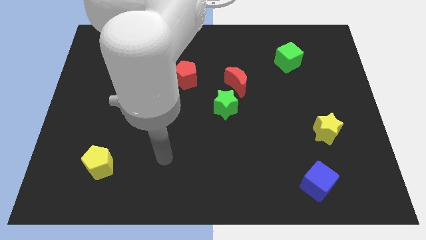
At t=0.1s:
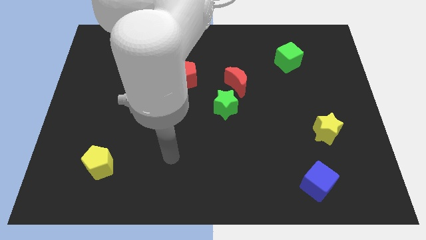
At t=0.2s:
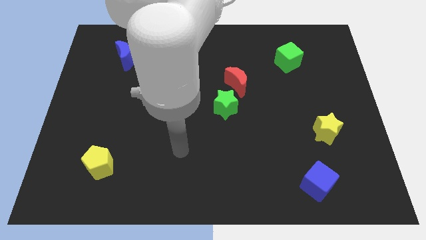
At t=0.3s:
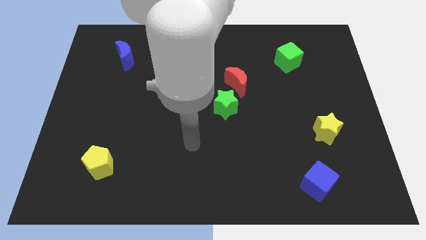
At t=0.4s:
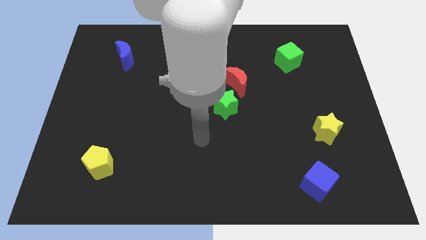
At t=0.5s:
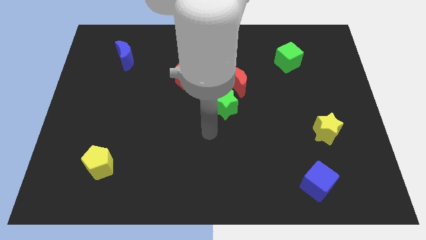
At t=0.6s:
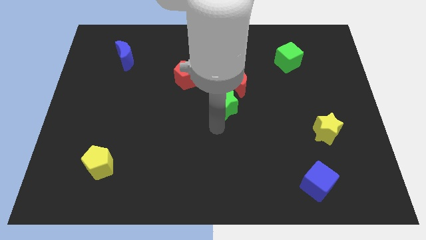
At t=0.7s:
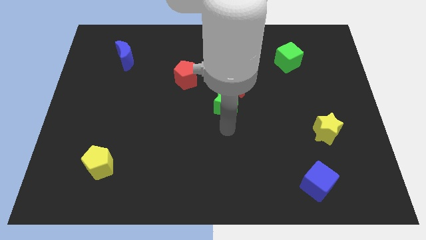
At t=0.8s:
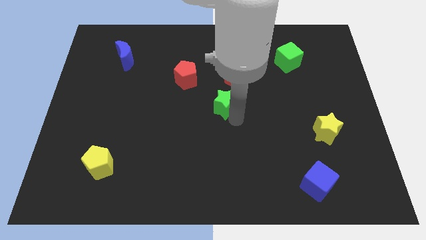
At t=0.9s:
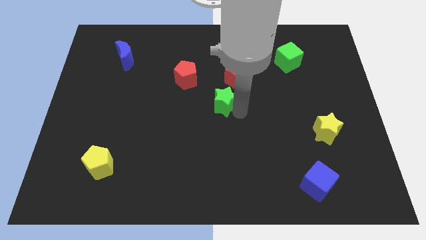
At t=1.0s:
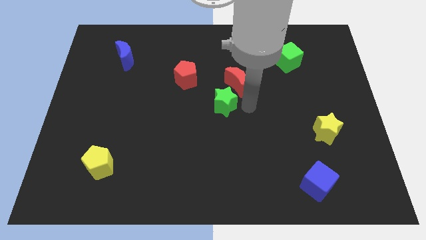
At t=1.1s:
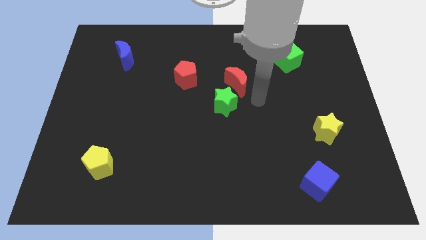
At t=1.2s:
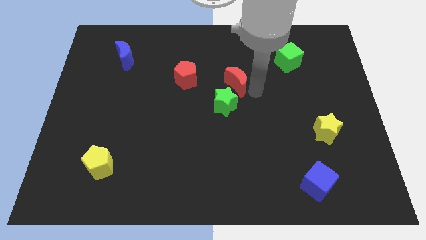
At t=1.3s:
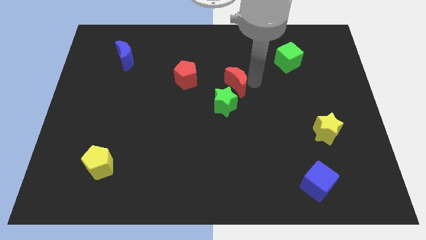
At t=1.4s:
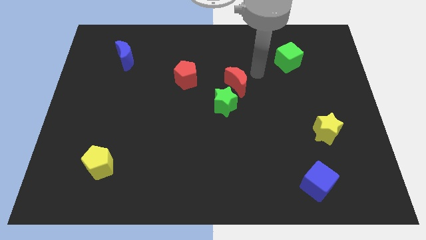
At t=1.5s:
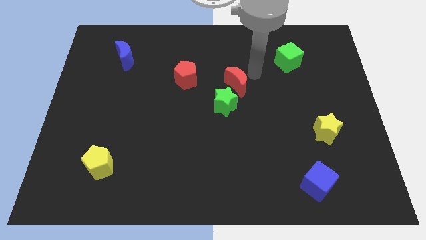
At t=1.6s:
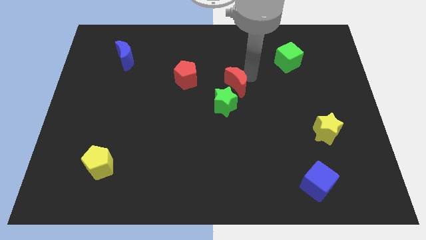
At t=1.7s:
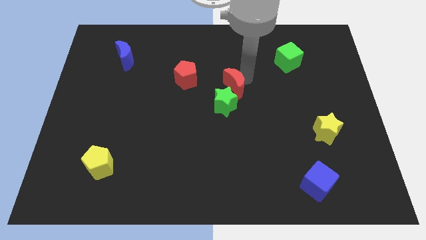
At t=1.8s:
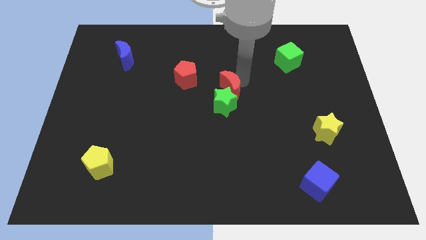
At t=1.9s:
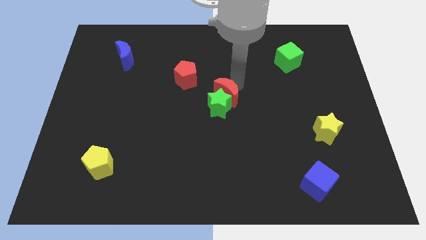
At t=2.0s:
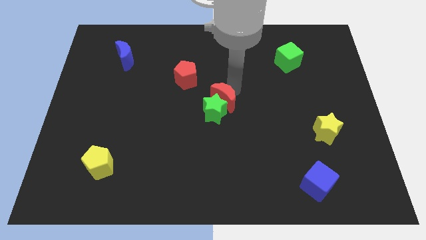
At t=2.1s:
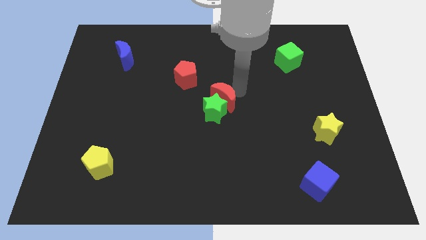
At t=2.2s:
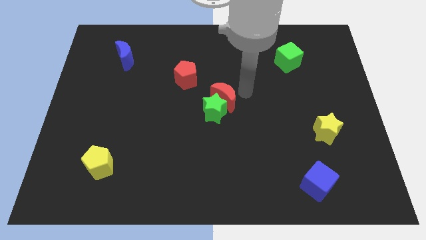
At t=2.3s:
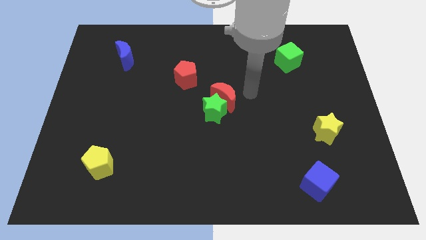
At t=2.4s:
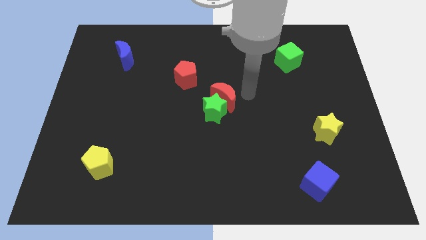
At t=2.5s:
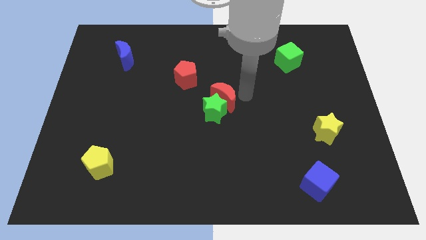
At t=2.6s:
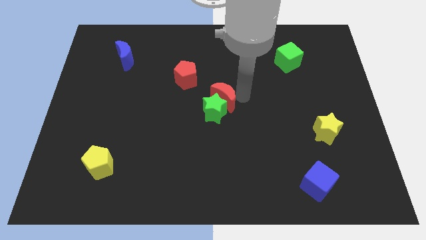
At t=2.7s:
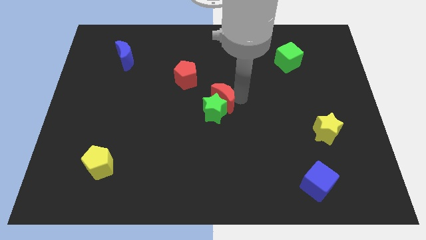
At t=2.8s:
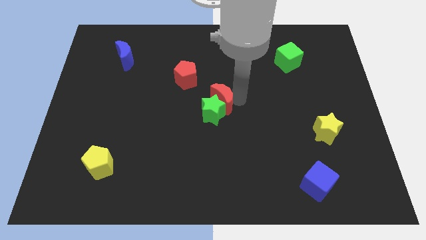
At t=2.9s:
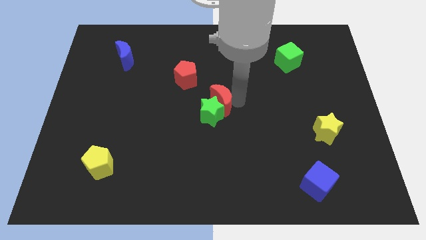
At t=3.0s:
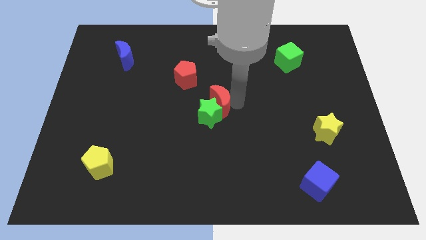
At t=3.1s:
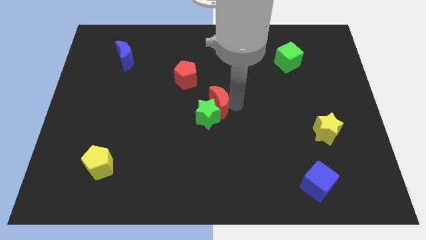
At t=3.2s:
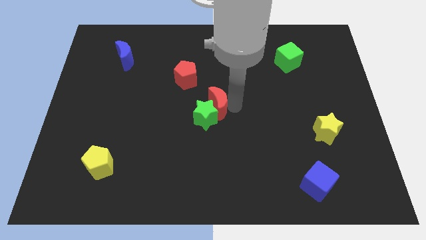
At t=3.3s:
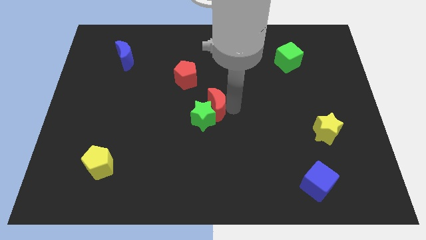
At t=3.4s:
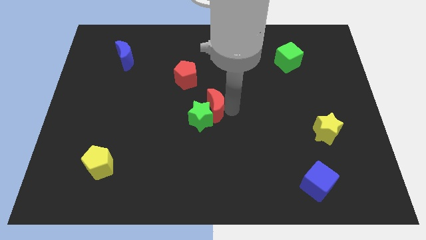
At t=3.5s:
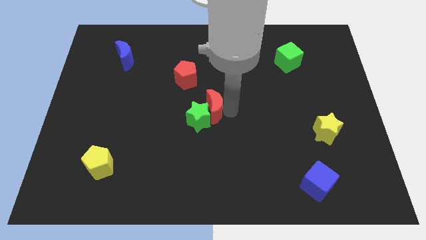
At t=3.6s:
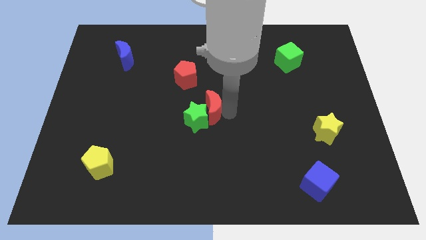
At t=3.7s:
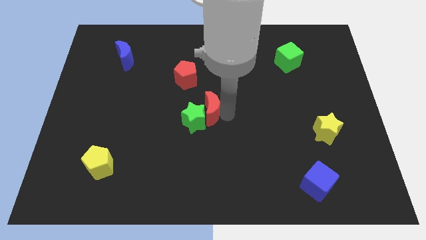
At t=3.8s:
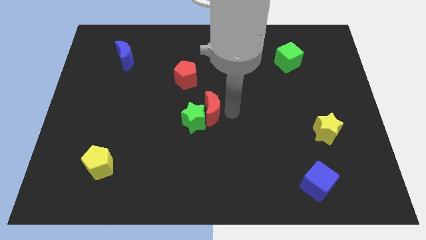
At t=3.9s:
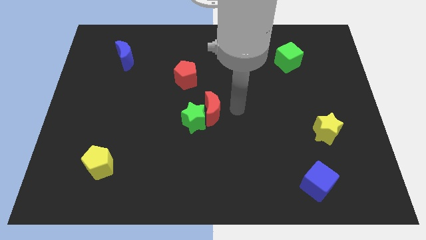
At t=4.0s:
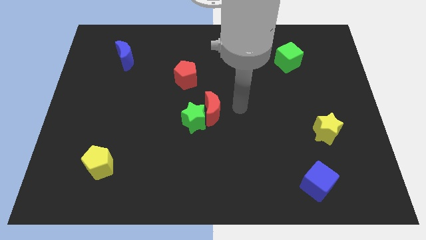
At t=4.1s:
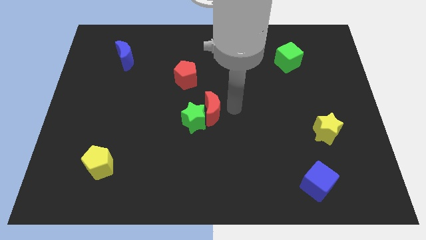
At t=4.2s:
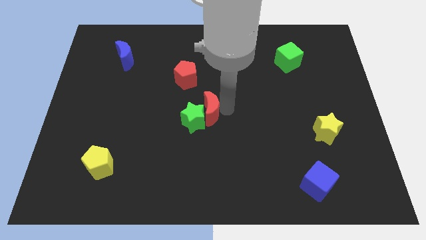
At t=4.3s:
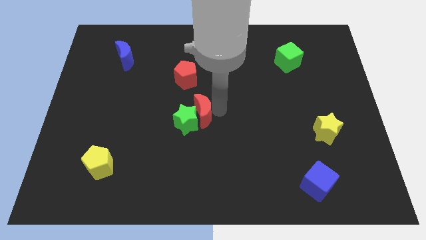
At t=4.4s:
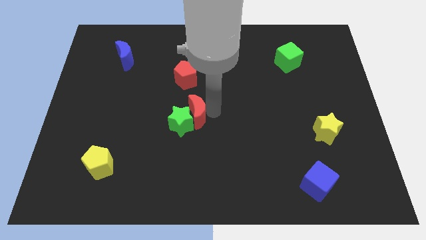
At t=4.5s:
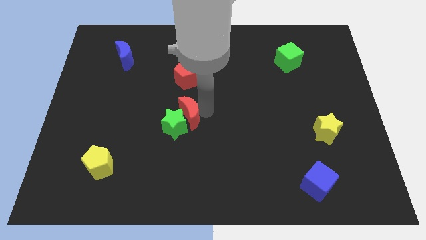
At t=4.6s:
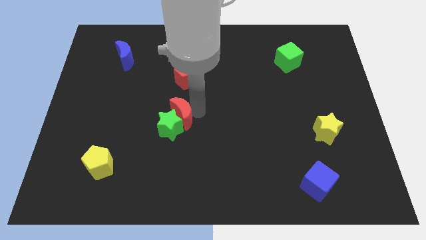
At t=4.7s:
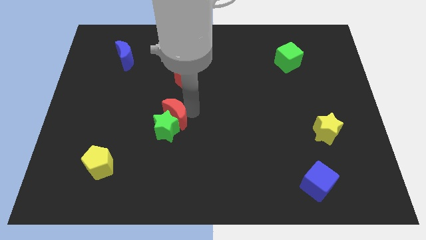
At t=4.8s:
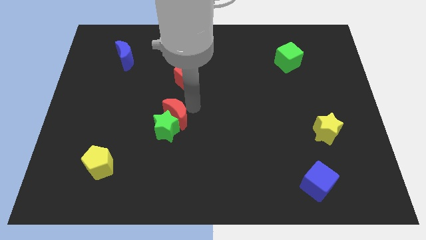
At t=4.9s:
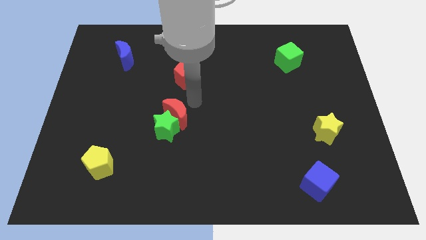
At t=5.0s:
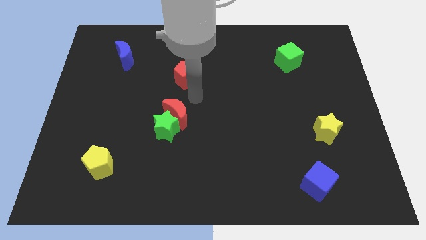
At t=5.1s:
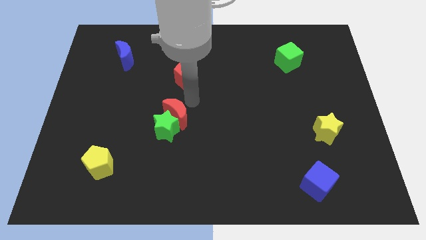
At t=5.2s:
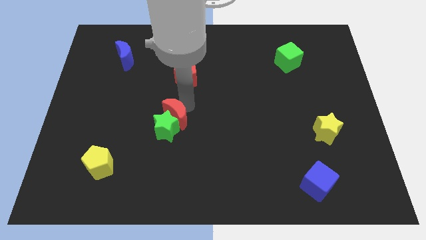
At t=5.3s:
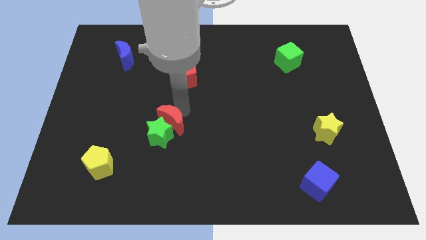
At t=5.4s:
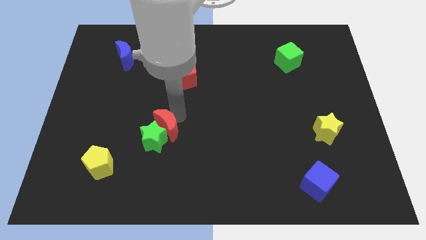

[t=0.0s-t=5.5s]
push the red moon down and then left

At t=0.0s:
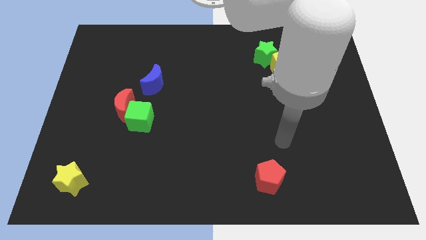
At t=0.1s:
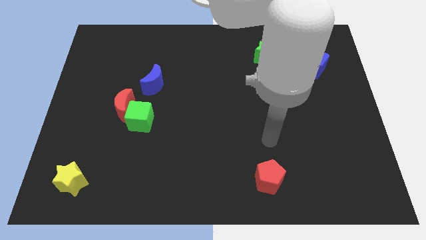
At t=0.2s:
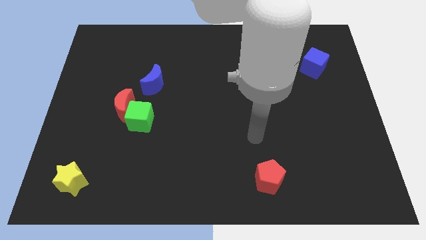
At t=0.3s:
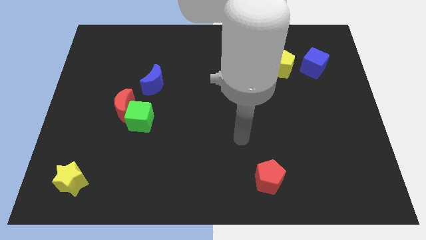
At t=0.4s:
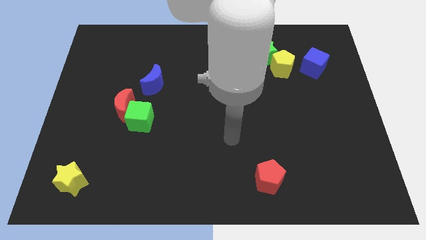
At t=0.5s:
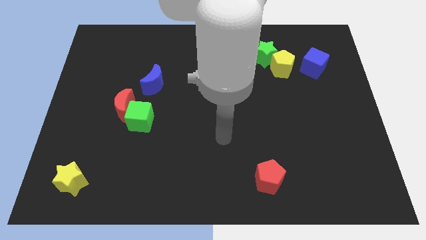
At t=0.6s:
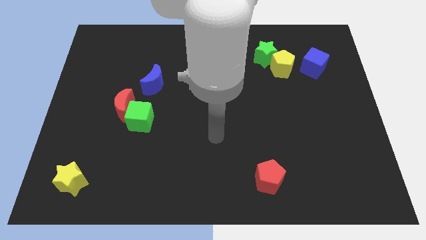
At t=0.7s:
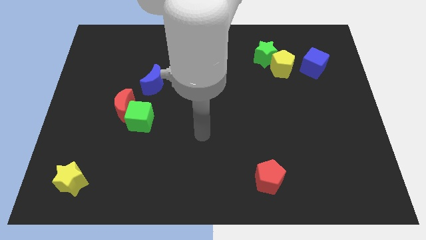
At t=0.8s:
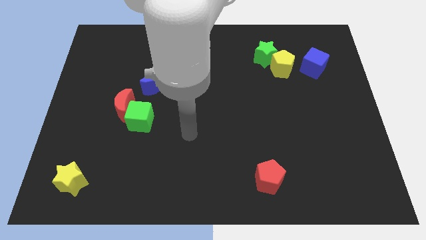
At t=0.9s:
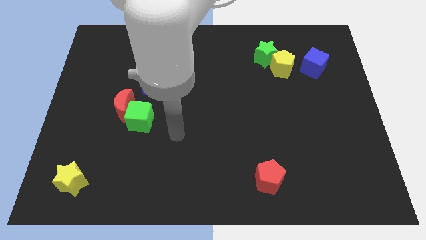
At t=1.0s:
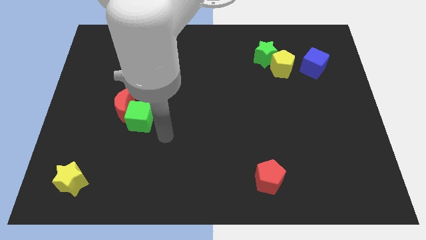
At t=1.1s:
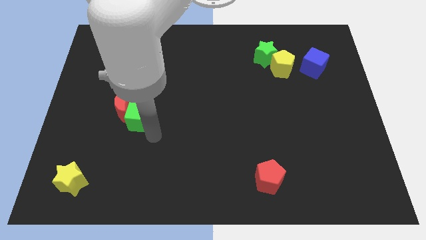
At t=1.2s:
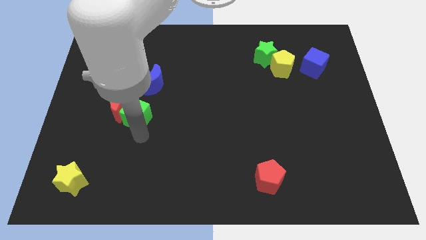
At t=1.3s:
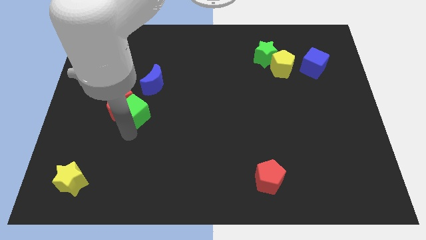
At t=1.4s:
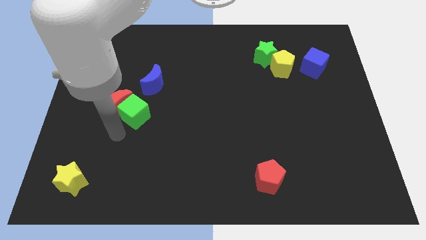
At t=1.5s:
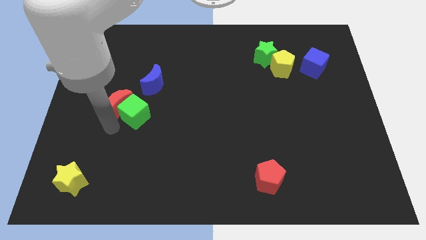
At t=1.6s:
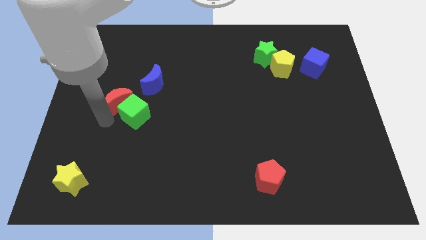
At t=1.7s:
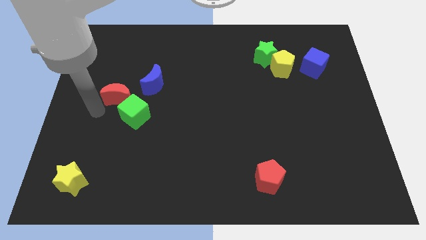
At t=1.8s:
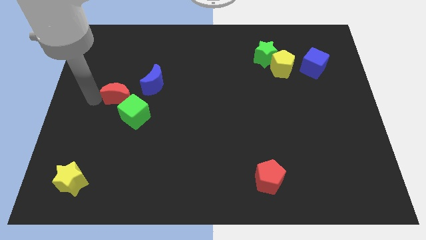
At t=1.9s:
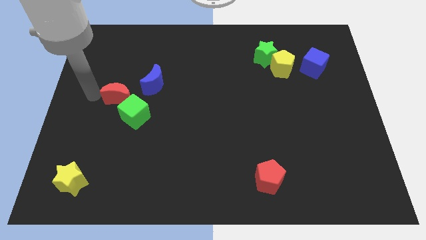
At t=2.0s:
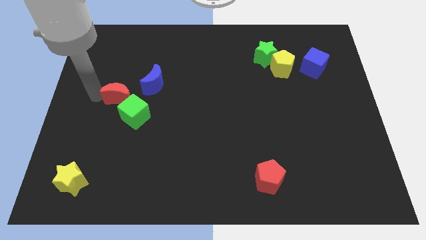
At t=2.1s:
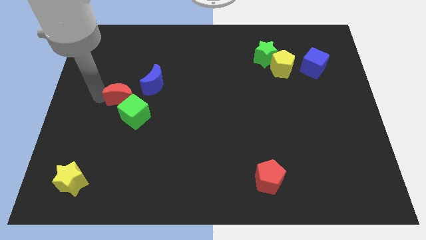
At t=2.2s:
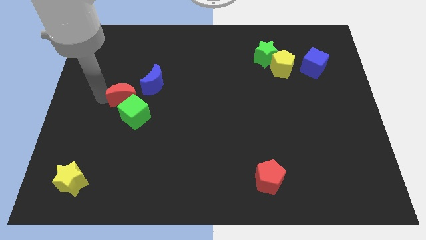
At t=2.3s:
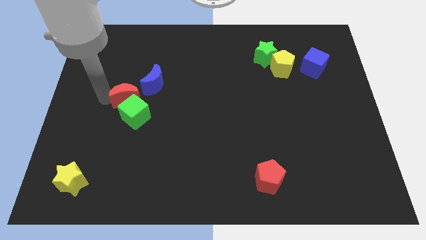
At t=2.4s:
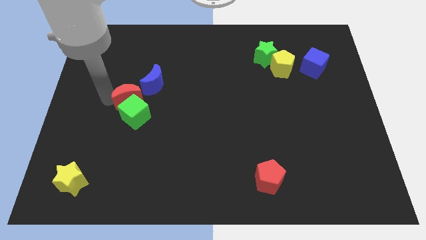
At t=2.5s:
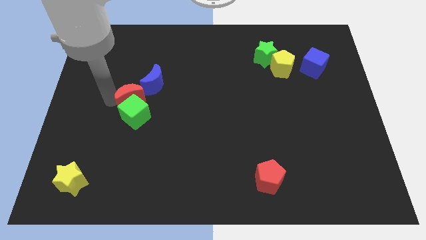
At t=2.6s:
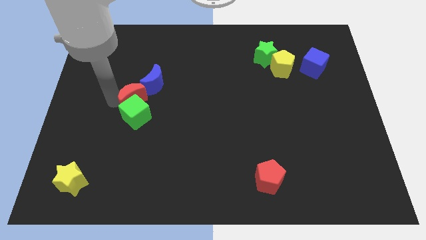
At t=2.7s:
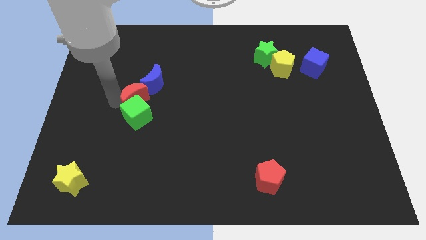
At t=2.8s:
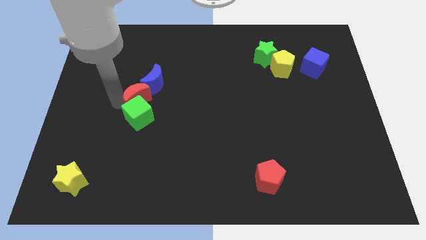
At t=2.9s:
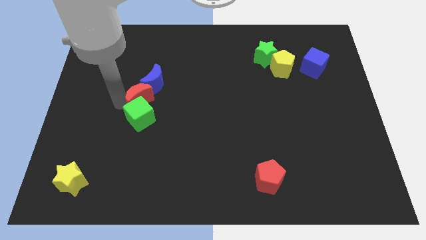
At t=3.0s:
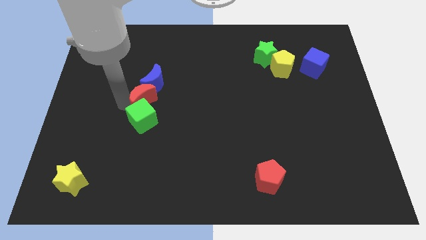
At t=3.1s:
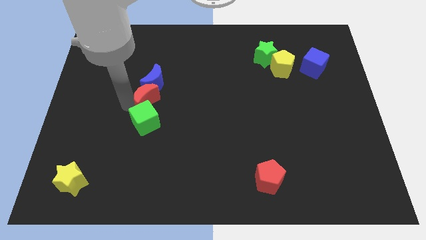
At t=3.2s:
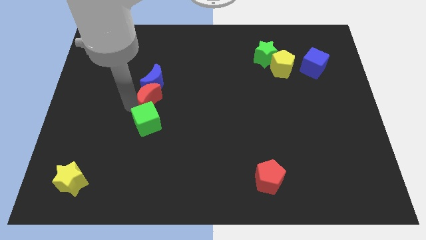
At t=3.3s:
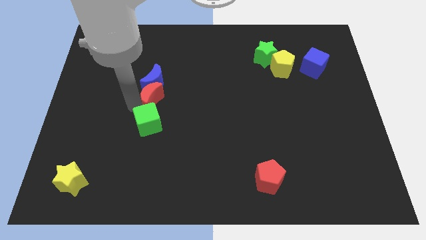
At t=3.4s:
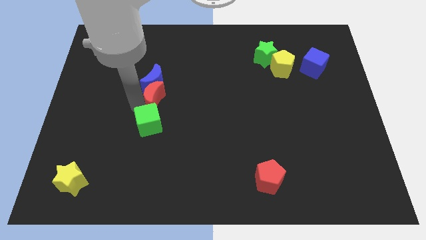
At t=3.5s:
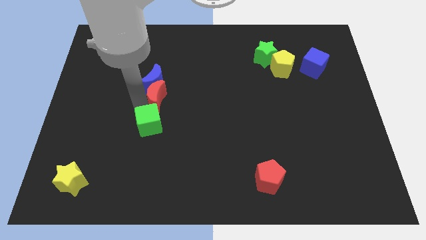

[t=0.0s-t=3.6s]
push the red moon a bit right
